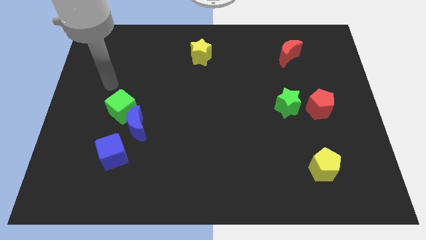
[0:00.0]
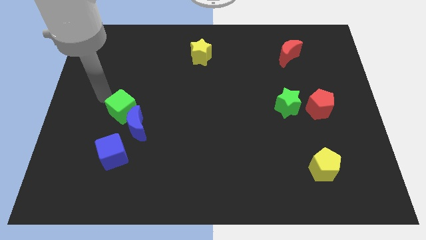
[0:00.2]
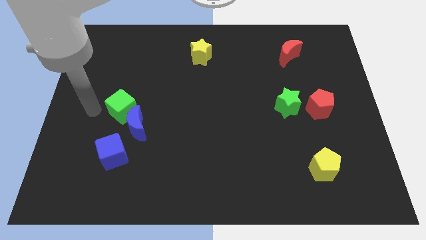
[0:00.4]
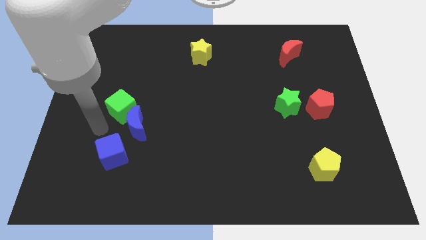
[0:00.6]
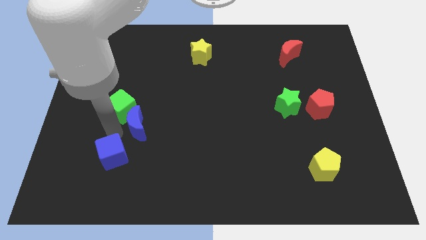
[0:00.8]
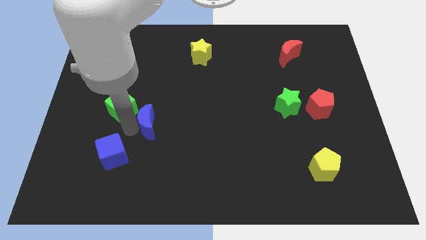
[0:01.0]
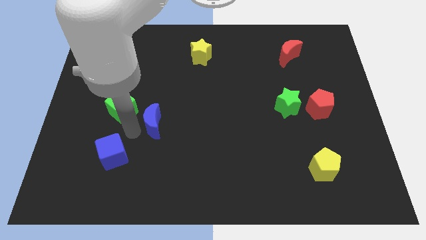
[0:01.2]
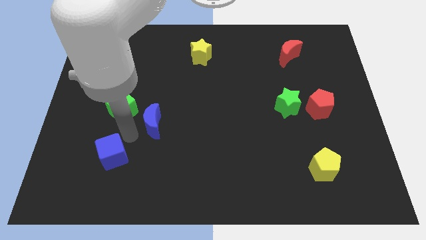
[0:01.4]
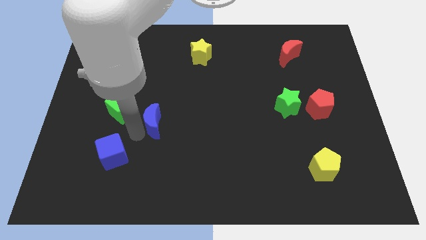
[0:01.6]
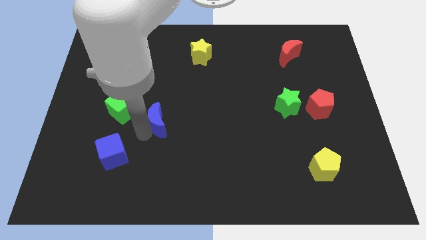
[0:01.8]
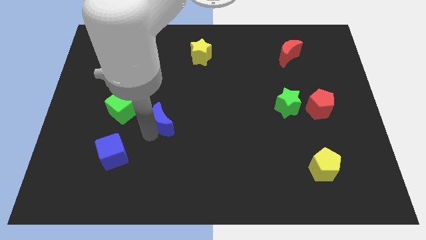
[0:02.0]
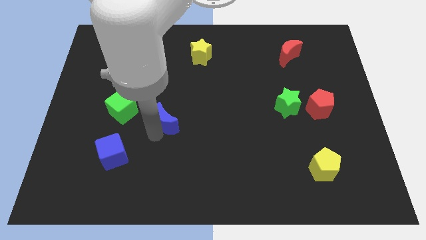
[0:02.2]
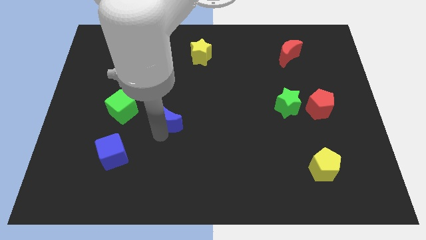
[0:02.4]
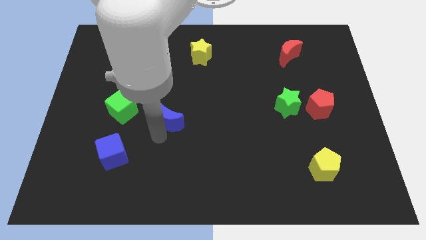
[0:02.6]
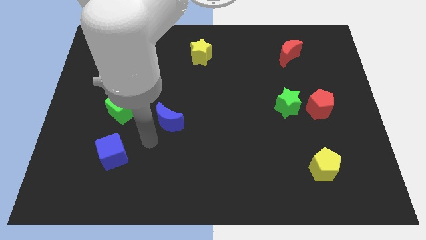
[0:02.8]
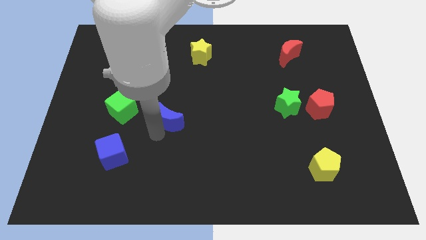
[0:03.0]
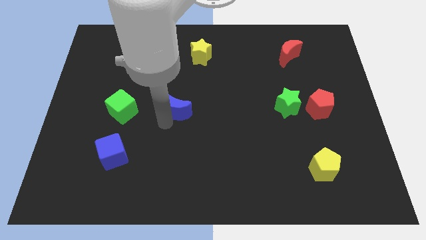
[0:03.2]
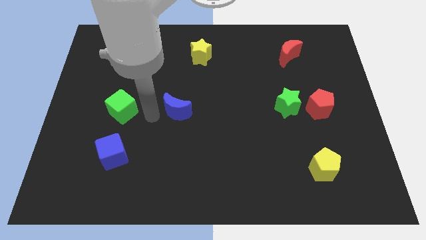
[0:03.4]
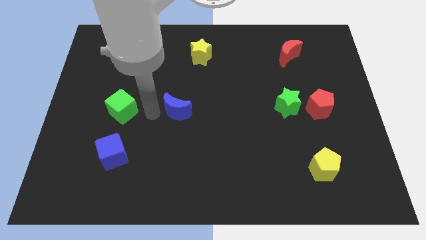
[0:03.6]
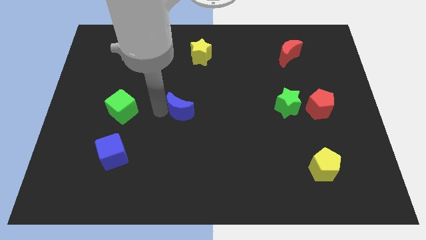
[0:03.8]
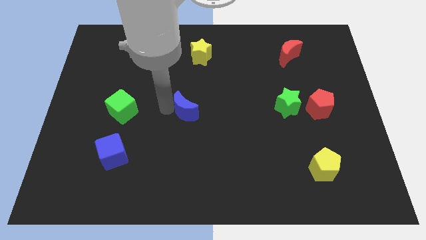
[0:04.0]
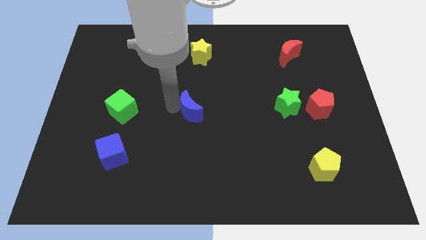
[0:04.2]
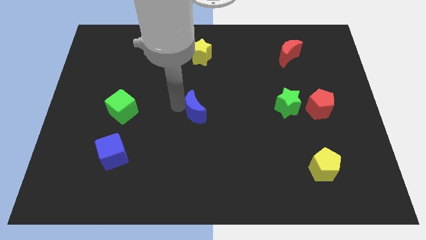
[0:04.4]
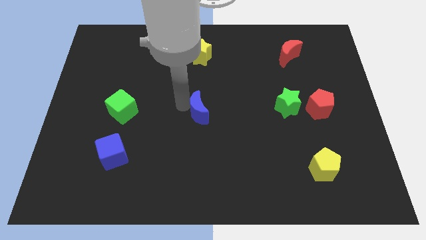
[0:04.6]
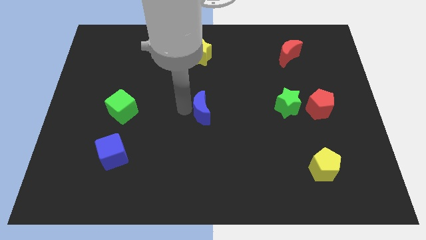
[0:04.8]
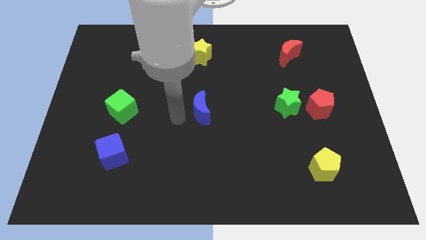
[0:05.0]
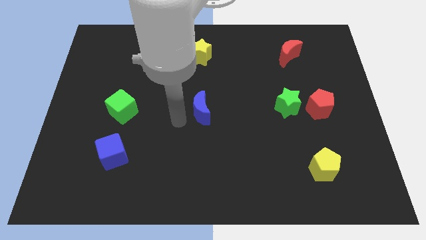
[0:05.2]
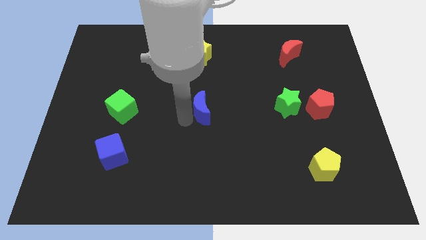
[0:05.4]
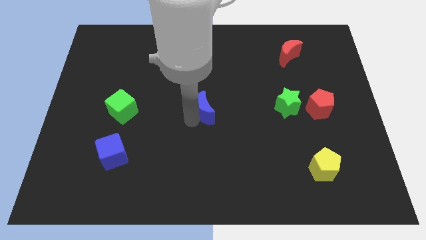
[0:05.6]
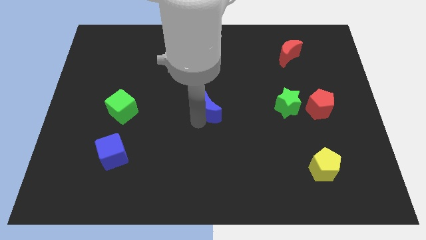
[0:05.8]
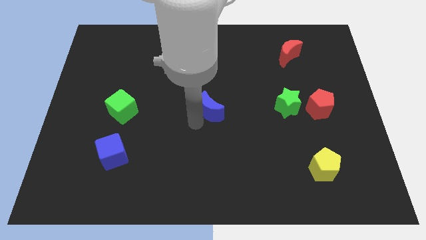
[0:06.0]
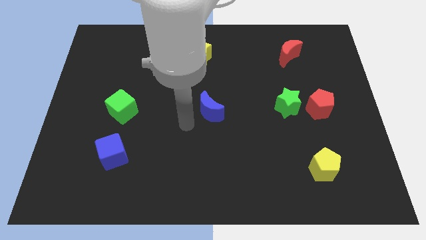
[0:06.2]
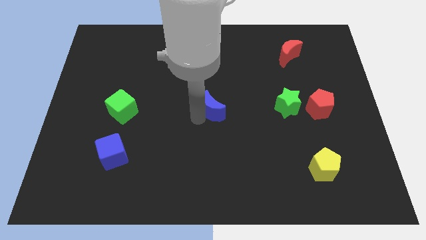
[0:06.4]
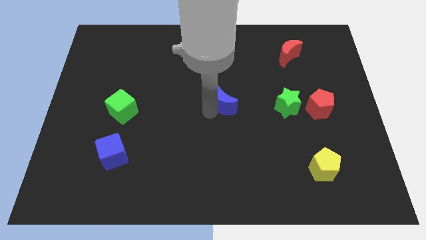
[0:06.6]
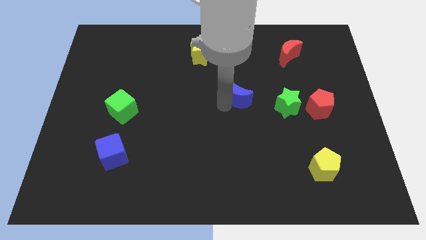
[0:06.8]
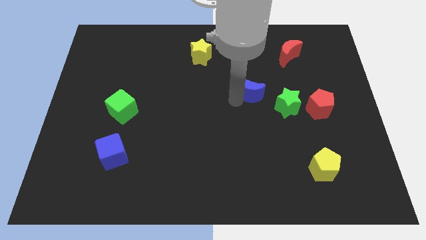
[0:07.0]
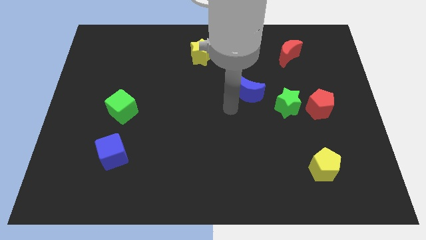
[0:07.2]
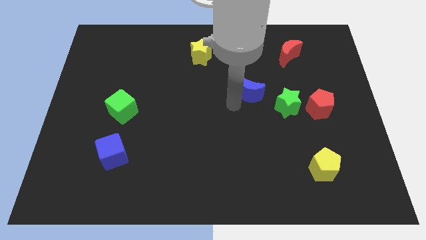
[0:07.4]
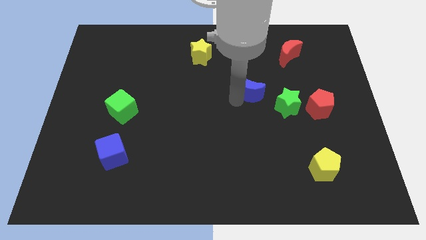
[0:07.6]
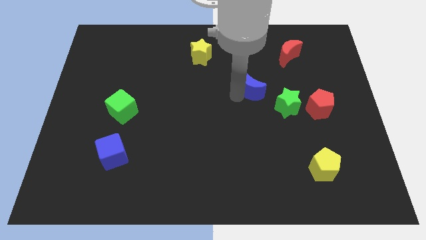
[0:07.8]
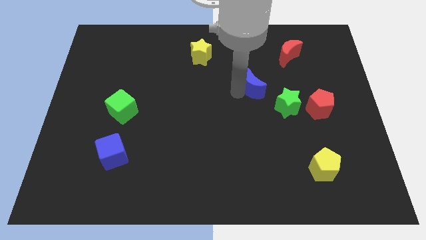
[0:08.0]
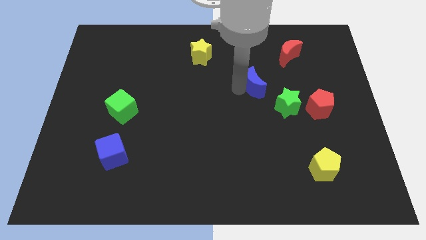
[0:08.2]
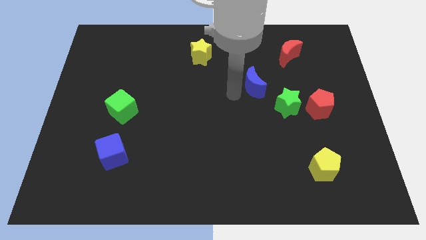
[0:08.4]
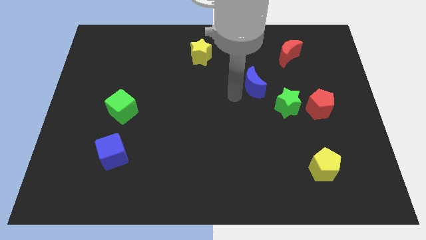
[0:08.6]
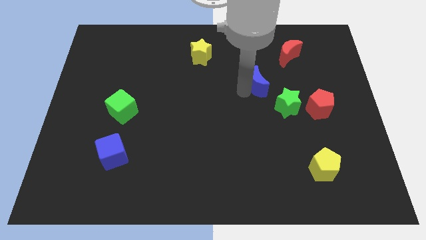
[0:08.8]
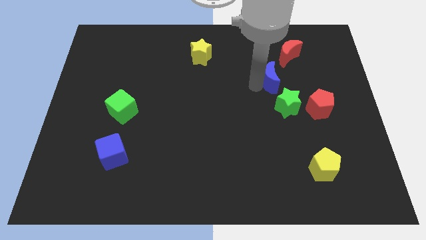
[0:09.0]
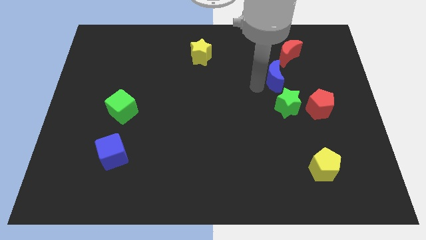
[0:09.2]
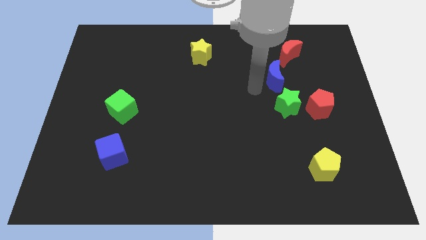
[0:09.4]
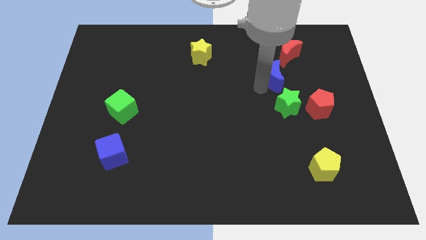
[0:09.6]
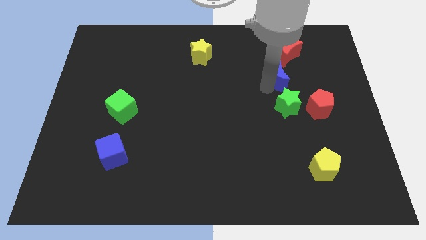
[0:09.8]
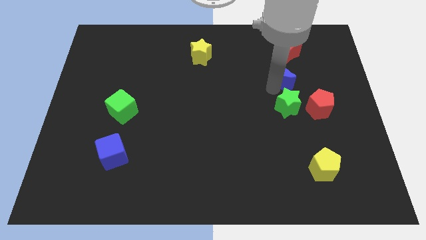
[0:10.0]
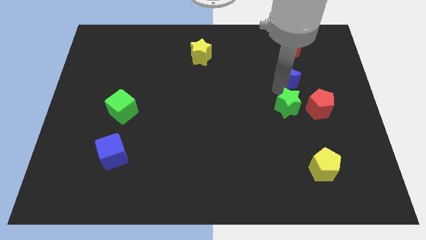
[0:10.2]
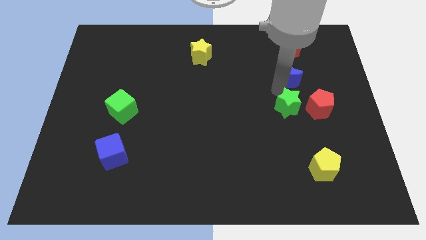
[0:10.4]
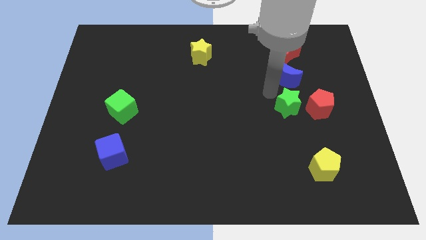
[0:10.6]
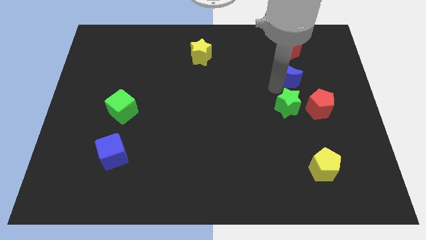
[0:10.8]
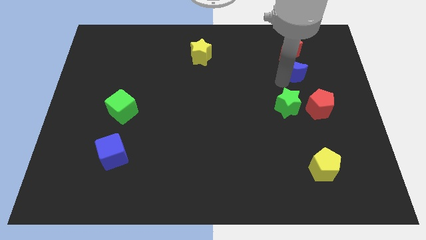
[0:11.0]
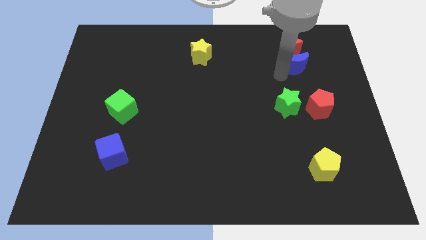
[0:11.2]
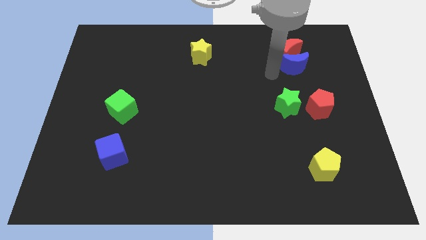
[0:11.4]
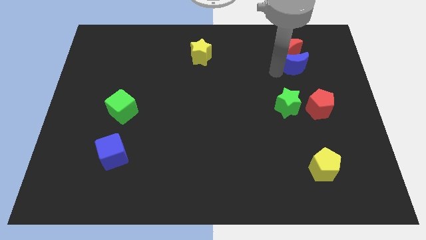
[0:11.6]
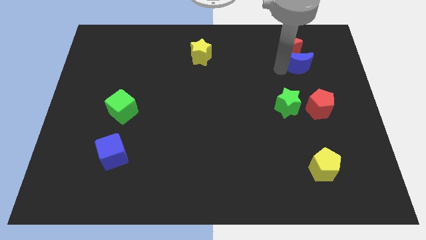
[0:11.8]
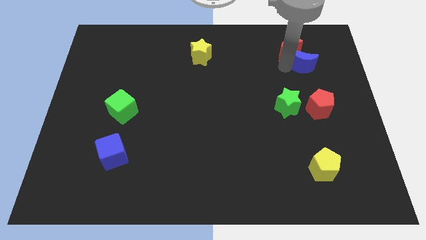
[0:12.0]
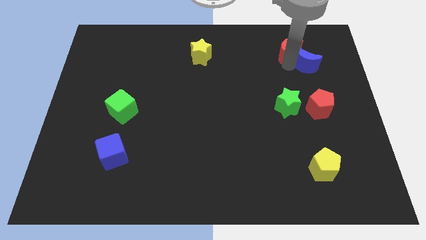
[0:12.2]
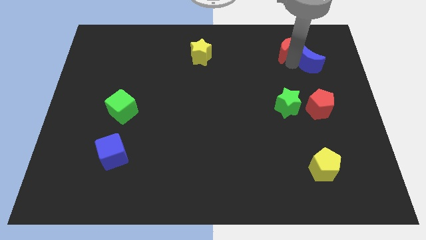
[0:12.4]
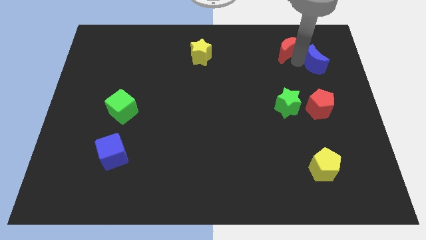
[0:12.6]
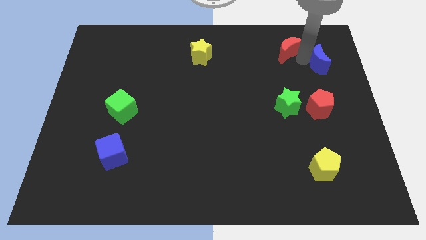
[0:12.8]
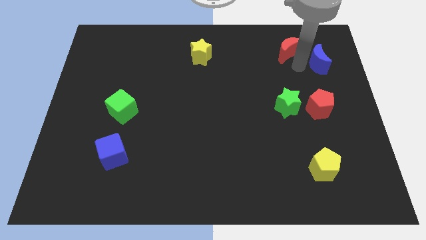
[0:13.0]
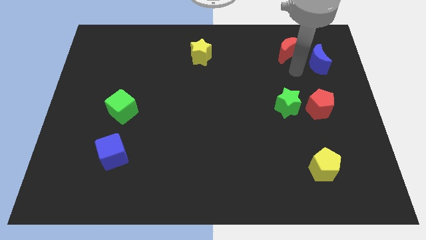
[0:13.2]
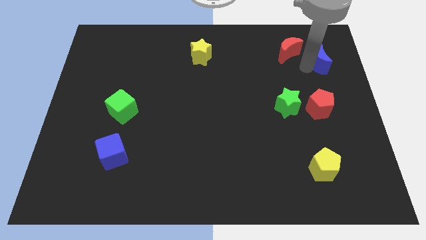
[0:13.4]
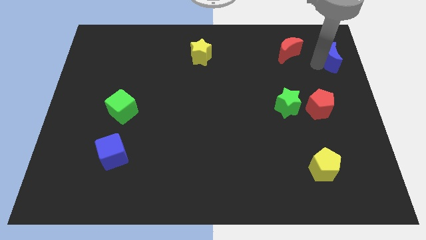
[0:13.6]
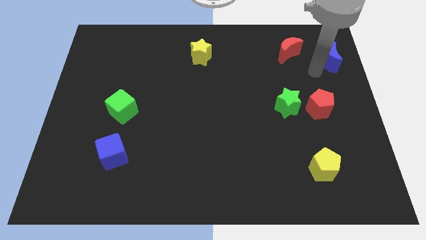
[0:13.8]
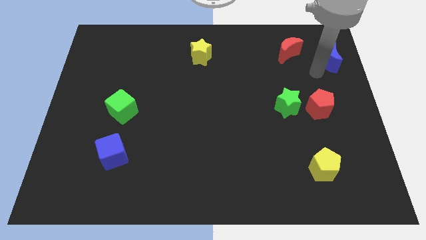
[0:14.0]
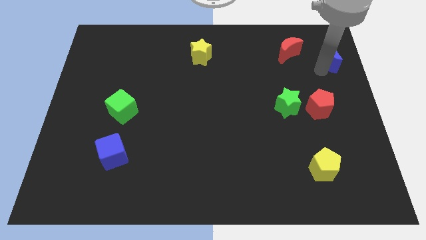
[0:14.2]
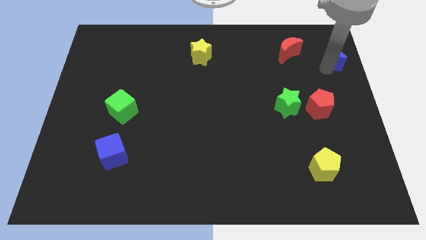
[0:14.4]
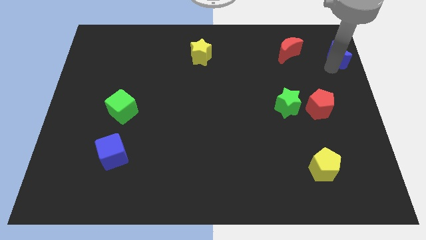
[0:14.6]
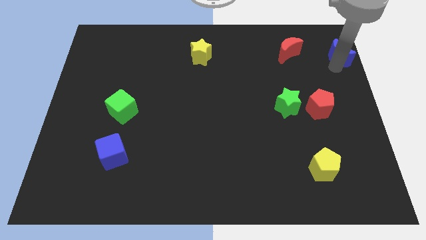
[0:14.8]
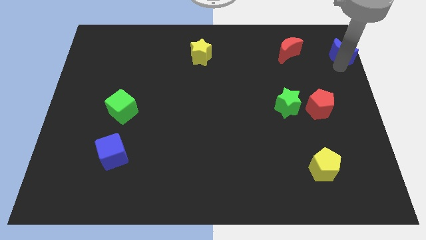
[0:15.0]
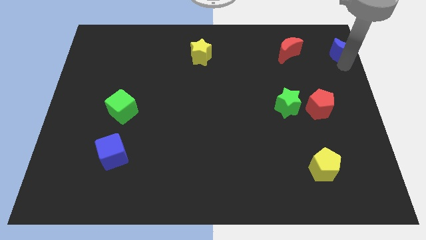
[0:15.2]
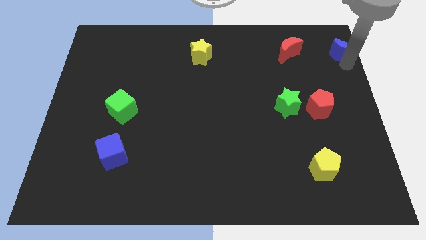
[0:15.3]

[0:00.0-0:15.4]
move the blue moon to the top right
